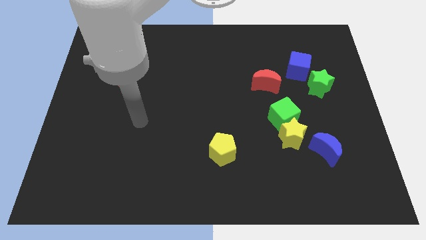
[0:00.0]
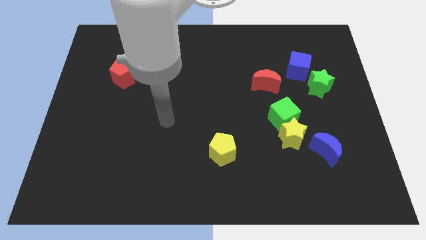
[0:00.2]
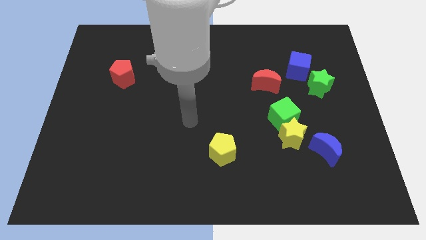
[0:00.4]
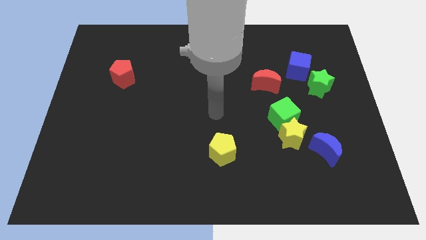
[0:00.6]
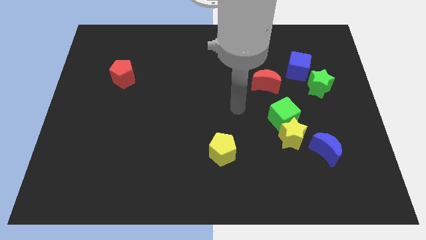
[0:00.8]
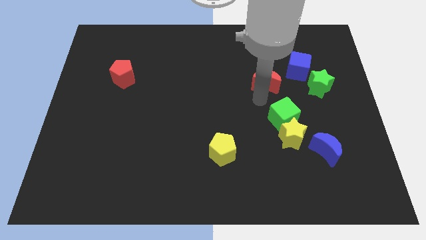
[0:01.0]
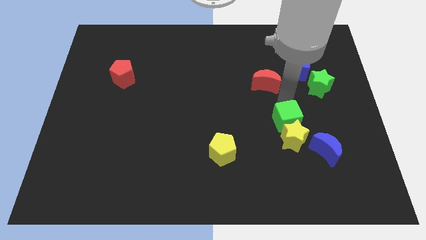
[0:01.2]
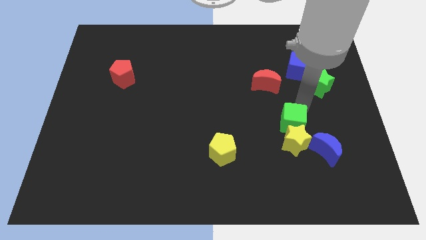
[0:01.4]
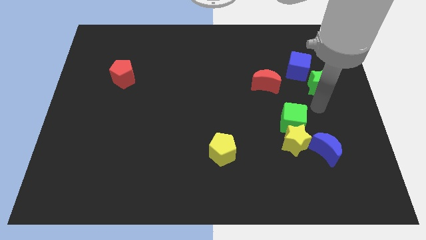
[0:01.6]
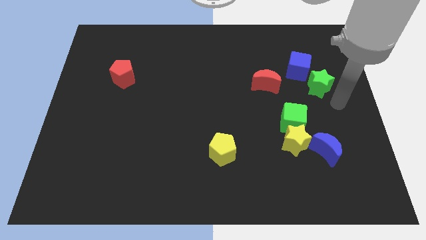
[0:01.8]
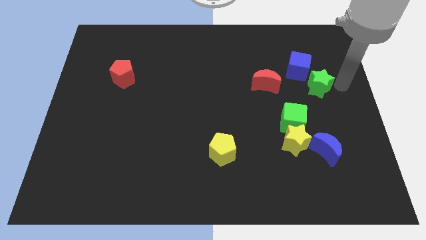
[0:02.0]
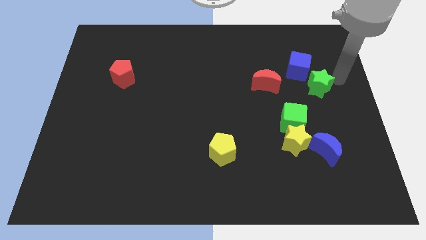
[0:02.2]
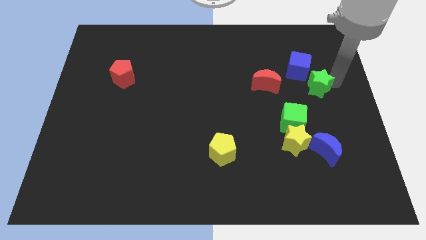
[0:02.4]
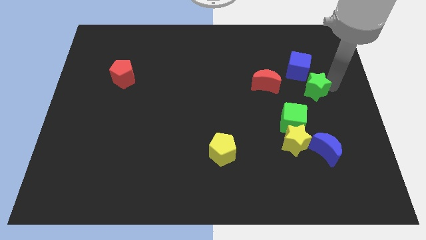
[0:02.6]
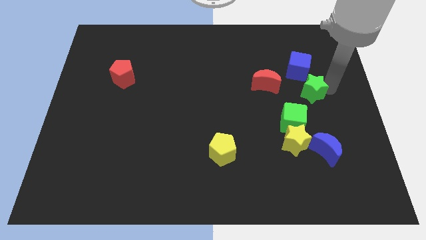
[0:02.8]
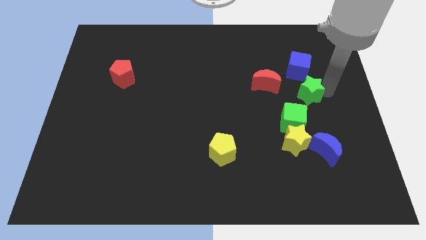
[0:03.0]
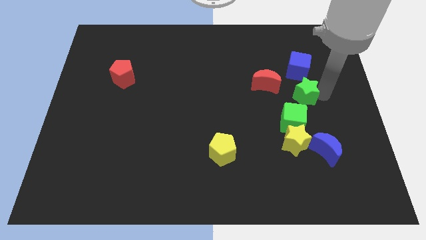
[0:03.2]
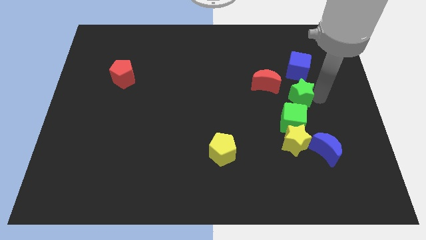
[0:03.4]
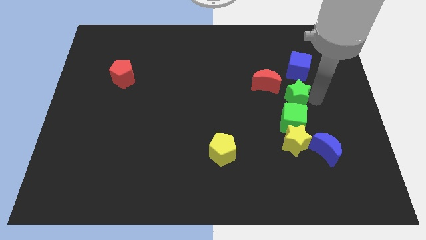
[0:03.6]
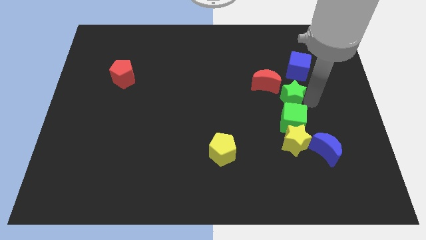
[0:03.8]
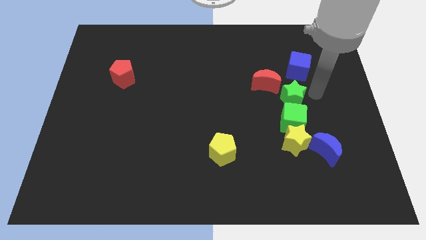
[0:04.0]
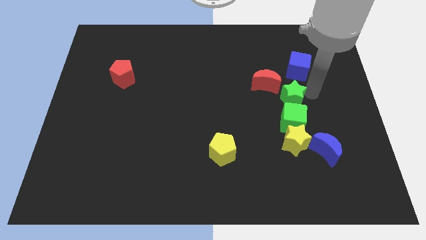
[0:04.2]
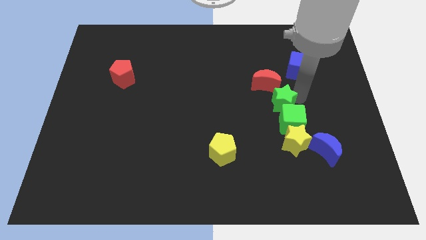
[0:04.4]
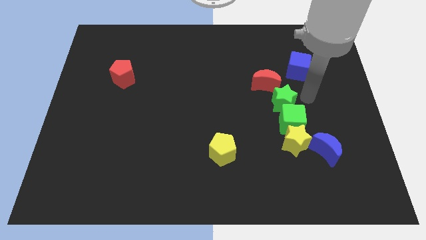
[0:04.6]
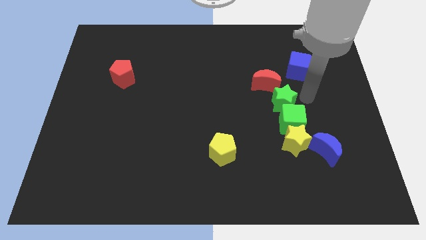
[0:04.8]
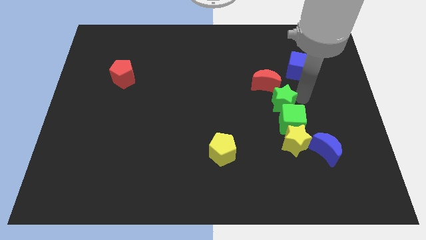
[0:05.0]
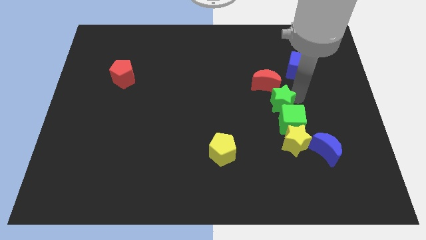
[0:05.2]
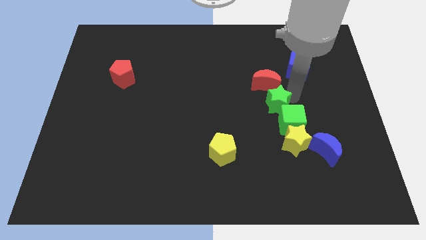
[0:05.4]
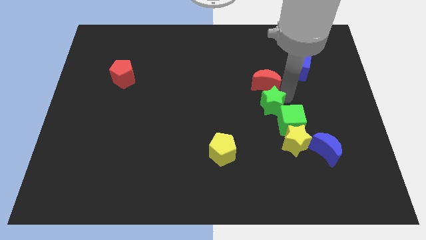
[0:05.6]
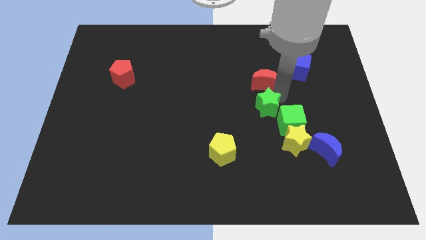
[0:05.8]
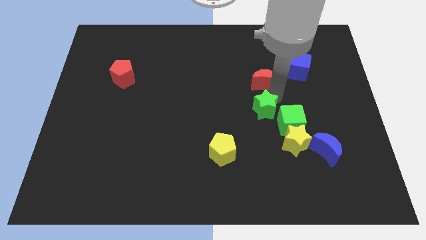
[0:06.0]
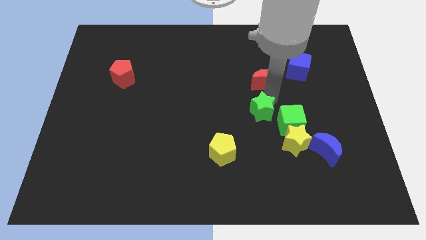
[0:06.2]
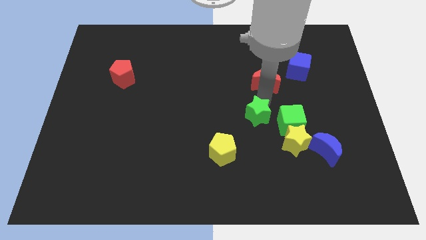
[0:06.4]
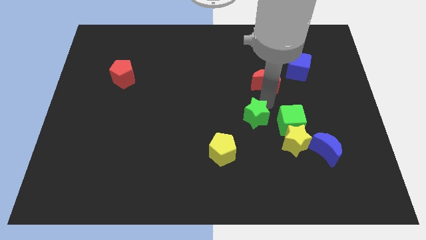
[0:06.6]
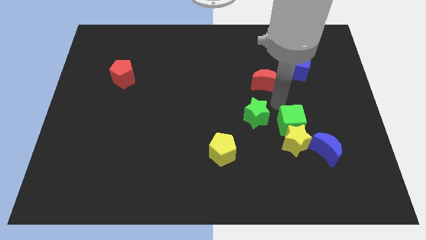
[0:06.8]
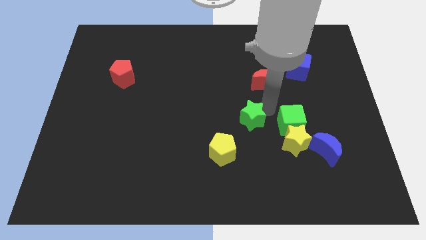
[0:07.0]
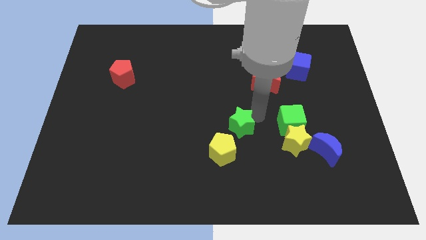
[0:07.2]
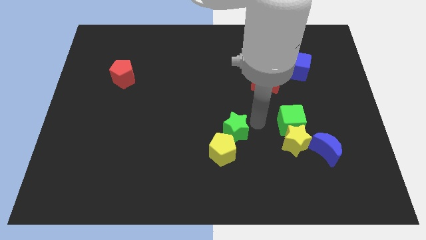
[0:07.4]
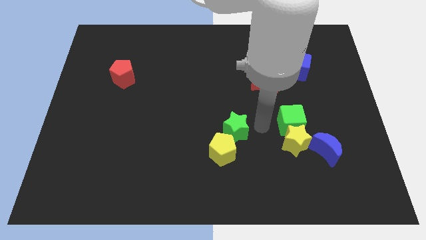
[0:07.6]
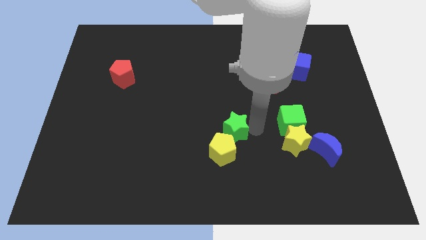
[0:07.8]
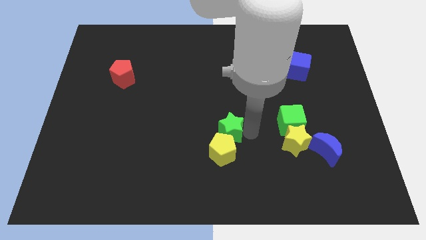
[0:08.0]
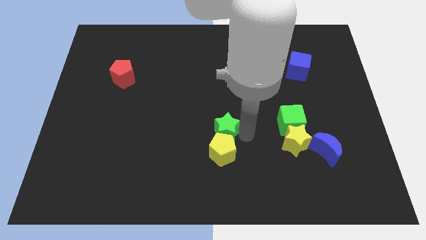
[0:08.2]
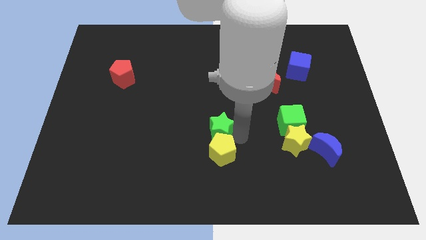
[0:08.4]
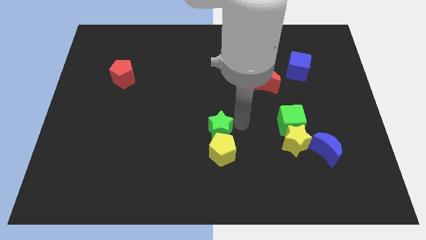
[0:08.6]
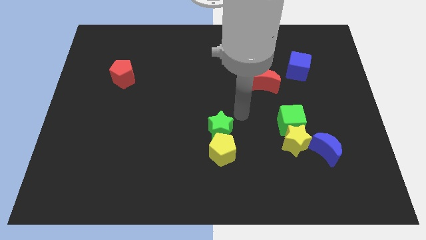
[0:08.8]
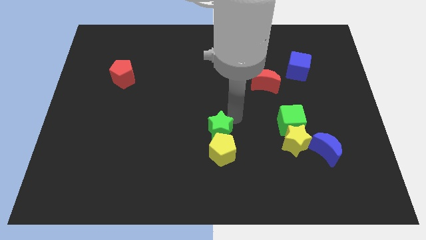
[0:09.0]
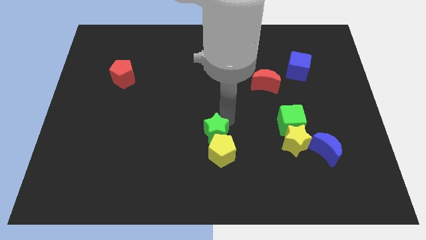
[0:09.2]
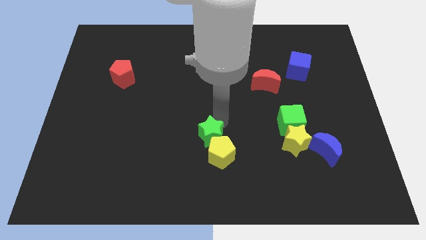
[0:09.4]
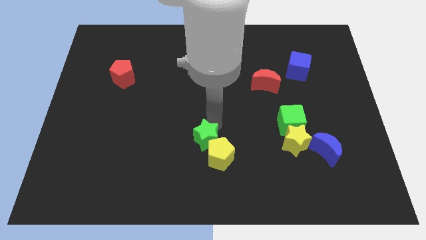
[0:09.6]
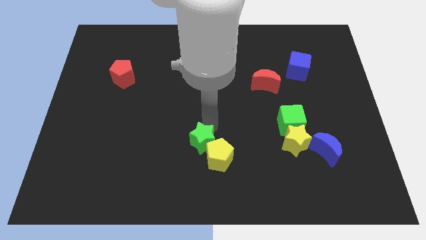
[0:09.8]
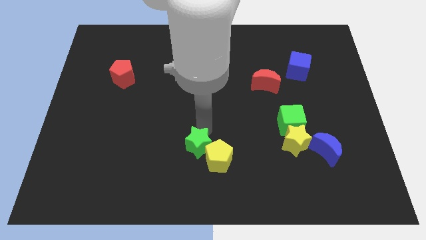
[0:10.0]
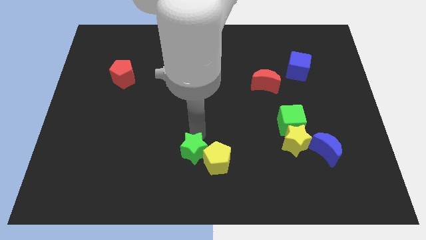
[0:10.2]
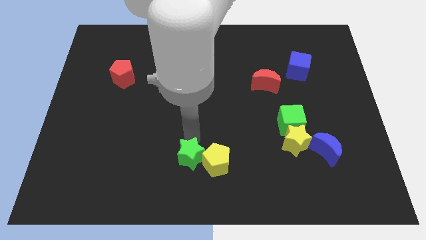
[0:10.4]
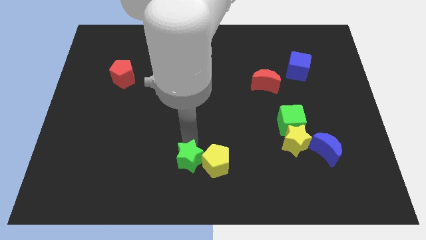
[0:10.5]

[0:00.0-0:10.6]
slide the green star diagonally down and to the left of the yellow pentagon

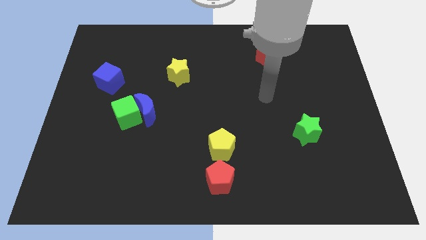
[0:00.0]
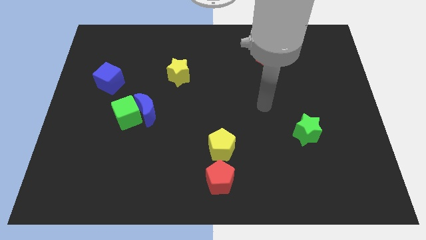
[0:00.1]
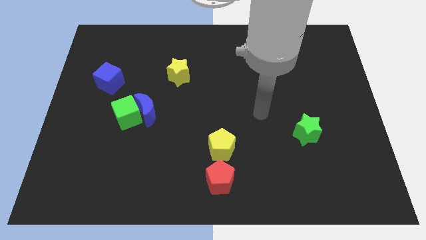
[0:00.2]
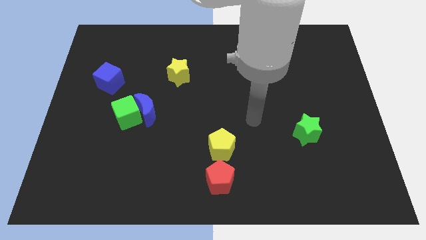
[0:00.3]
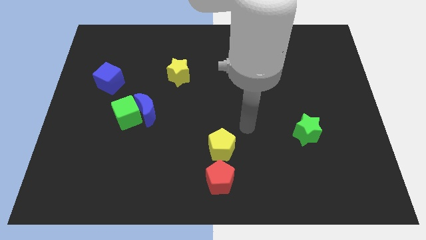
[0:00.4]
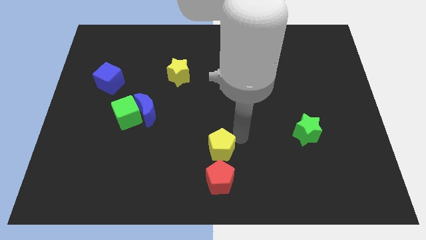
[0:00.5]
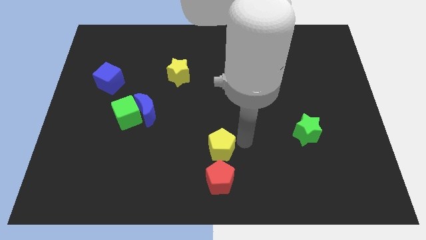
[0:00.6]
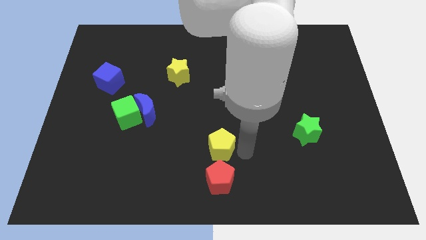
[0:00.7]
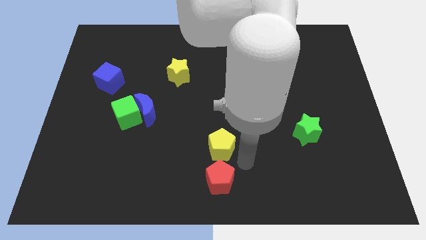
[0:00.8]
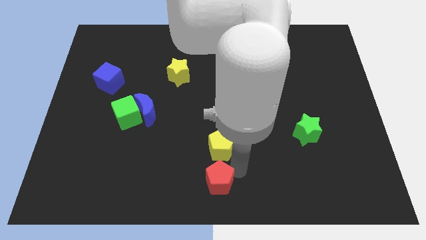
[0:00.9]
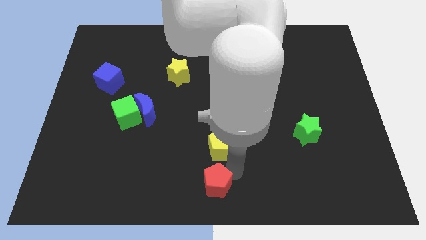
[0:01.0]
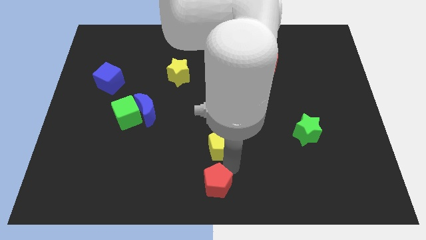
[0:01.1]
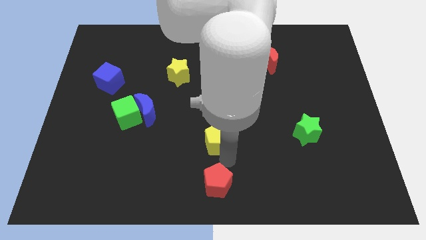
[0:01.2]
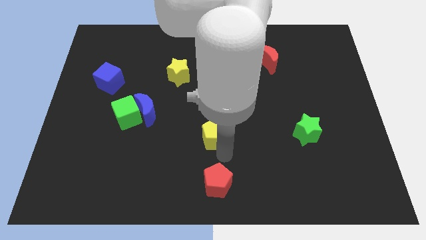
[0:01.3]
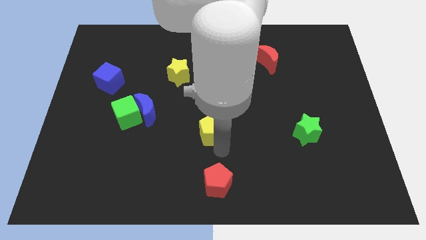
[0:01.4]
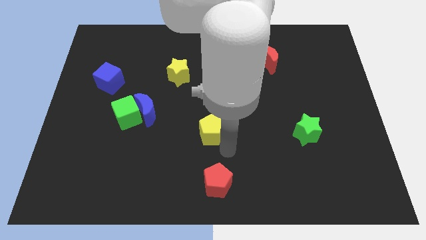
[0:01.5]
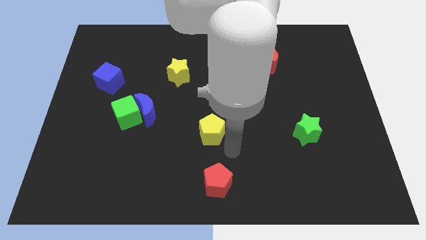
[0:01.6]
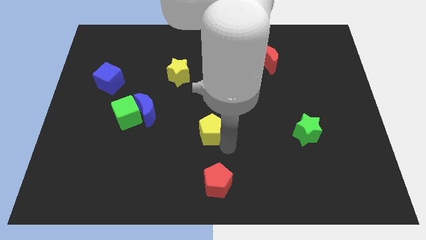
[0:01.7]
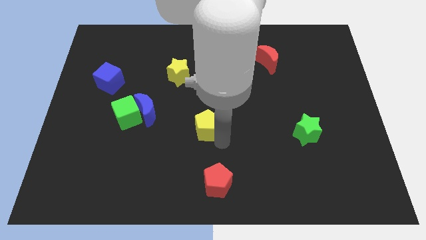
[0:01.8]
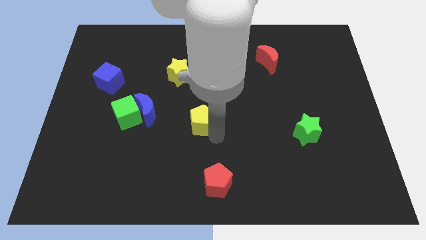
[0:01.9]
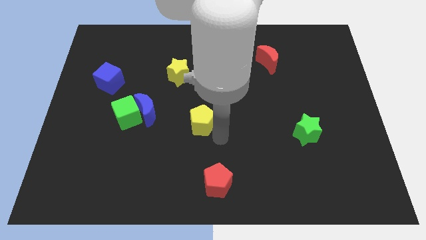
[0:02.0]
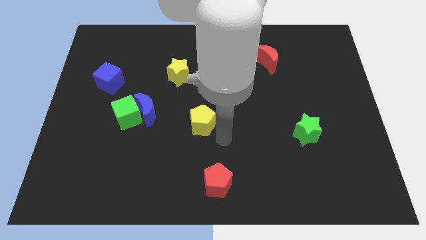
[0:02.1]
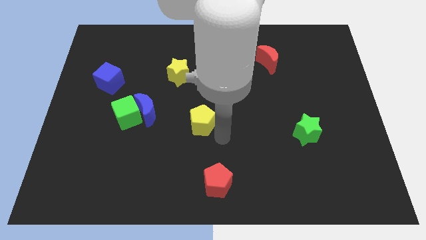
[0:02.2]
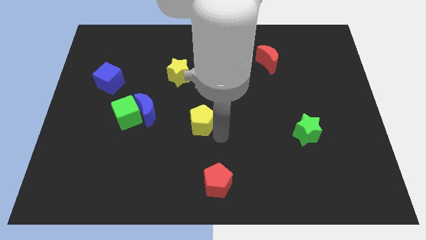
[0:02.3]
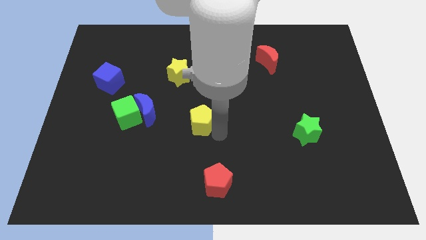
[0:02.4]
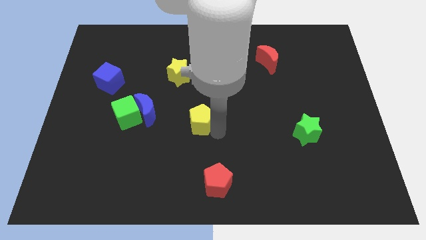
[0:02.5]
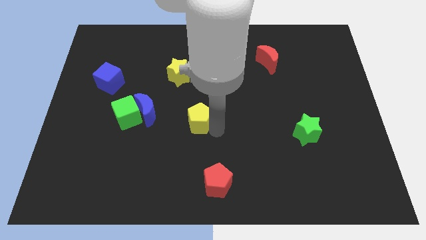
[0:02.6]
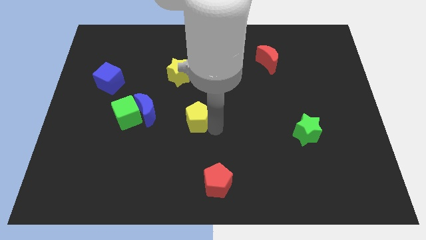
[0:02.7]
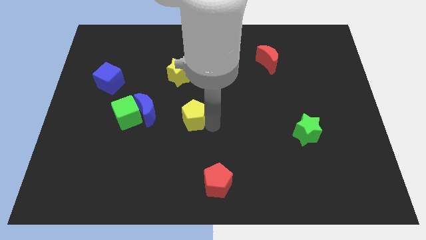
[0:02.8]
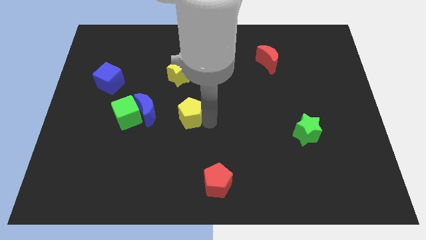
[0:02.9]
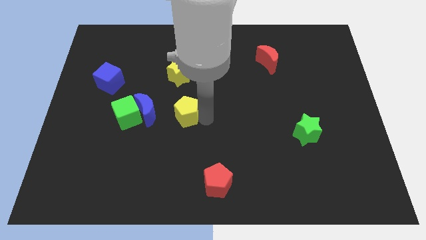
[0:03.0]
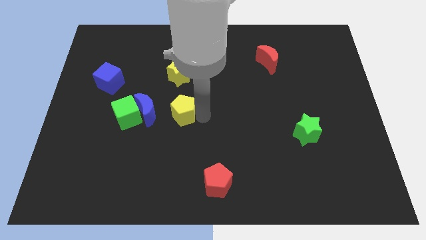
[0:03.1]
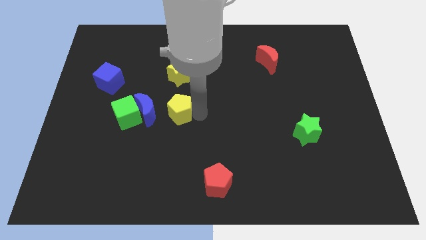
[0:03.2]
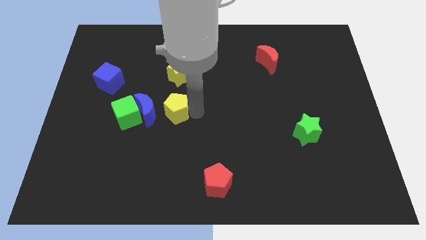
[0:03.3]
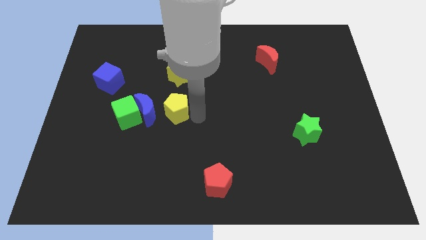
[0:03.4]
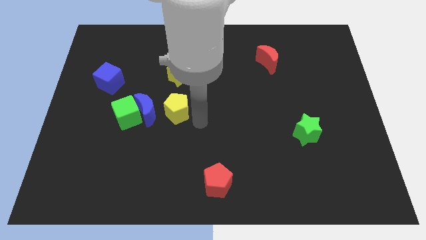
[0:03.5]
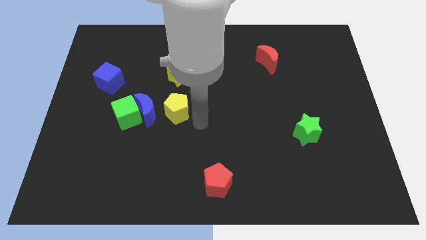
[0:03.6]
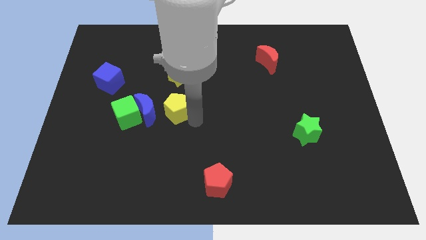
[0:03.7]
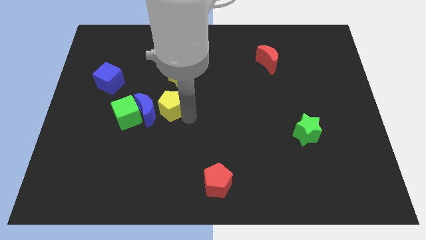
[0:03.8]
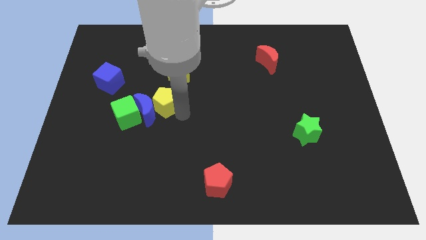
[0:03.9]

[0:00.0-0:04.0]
put the yellow pentagon to the top right of the green cube
